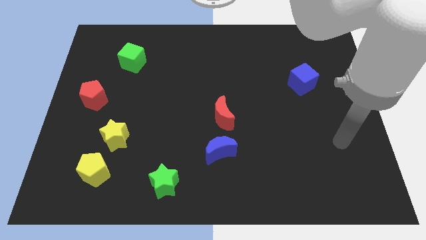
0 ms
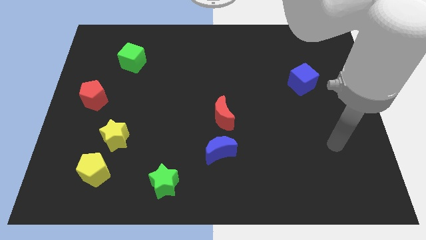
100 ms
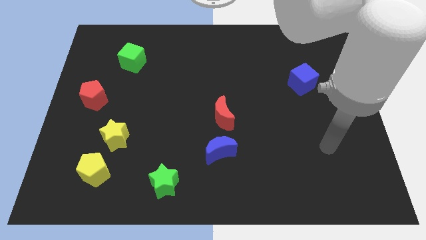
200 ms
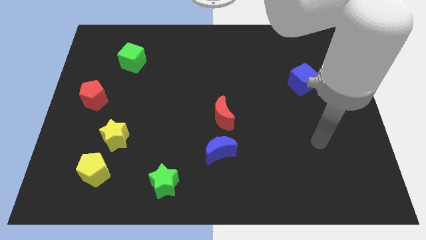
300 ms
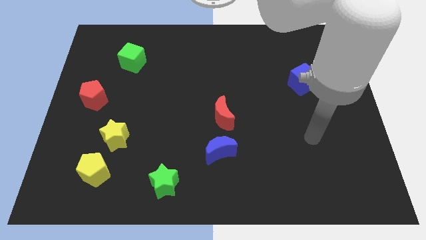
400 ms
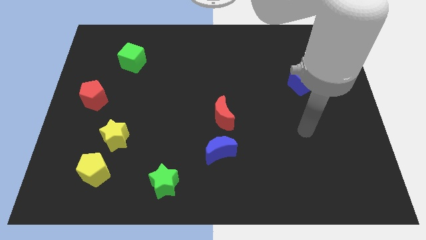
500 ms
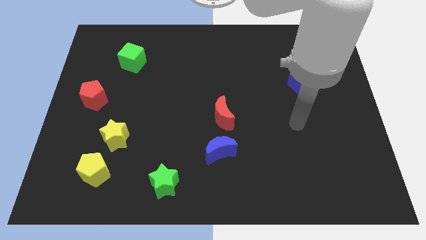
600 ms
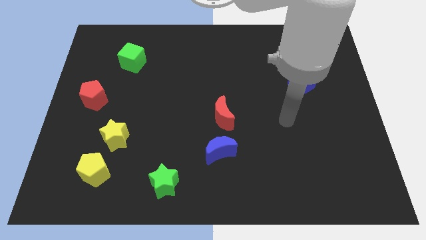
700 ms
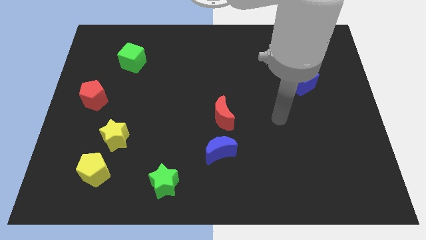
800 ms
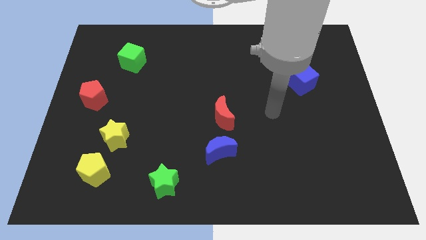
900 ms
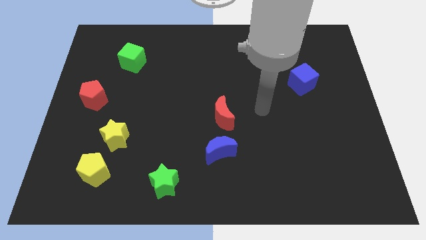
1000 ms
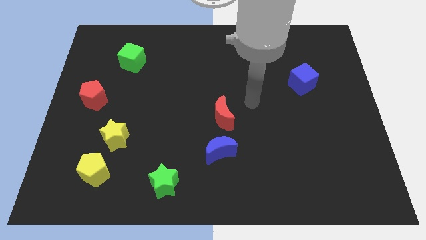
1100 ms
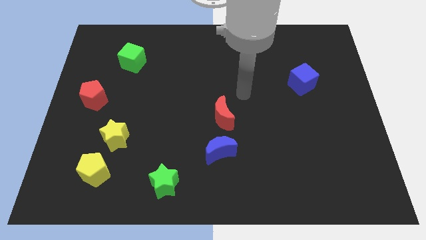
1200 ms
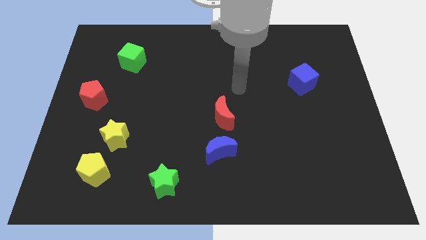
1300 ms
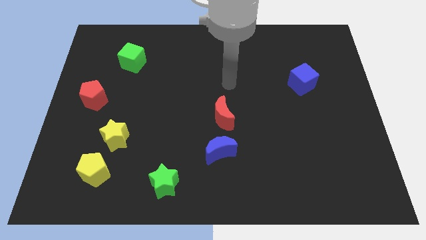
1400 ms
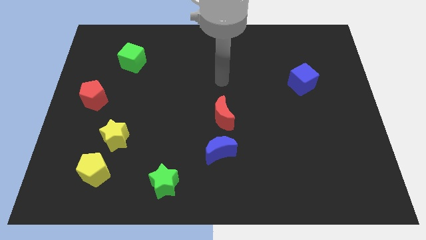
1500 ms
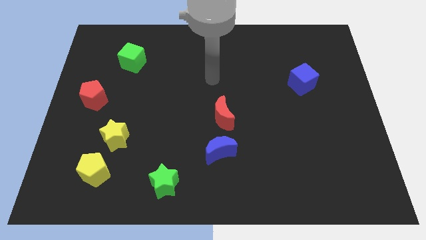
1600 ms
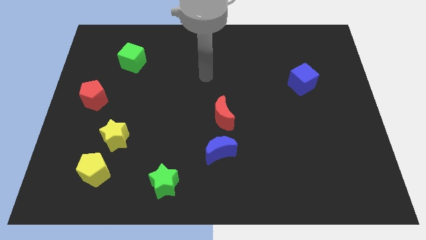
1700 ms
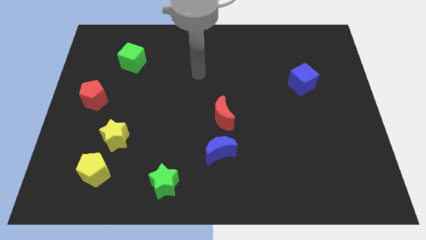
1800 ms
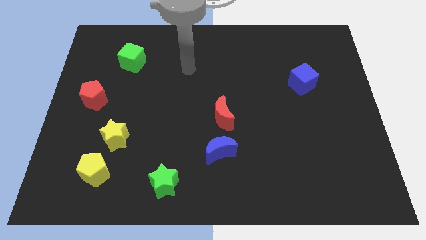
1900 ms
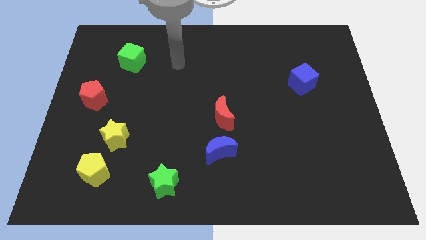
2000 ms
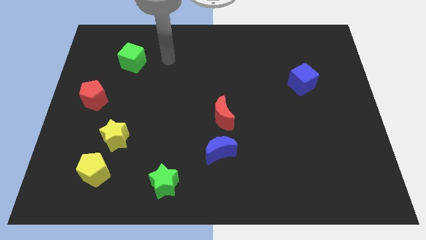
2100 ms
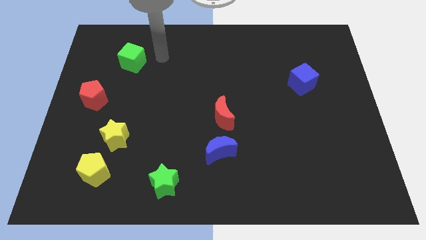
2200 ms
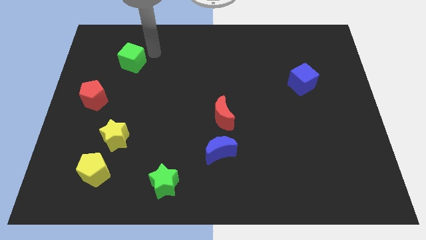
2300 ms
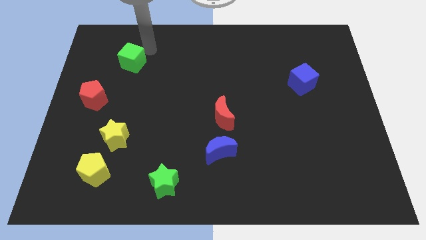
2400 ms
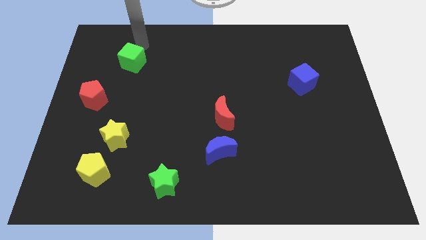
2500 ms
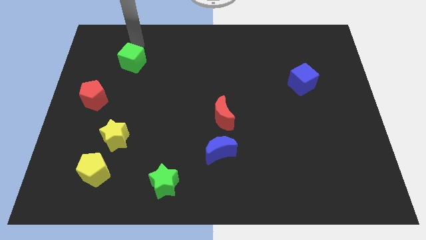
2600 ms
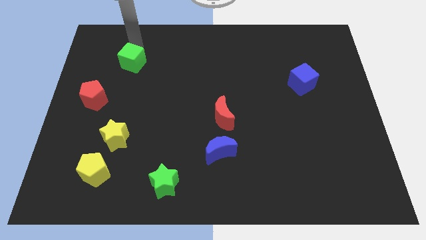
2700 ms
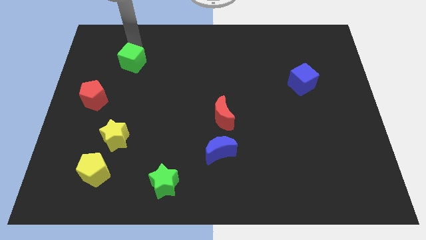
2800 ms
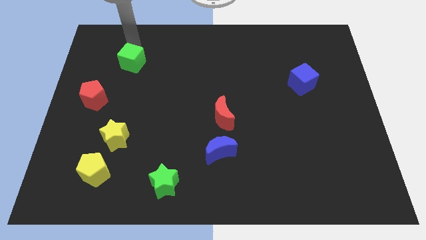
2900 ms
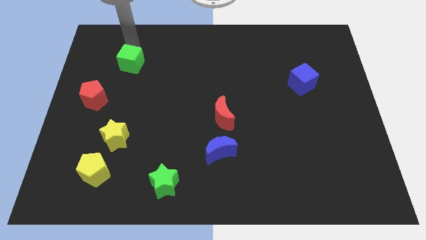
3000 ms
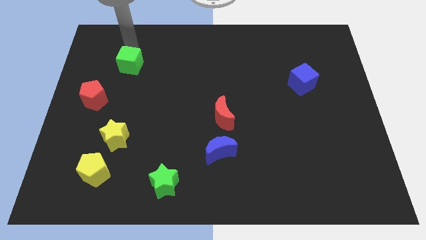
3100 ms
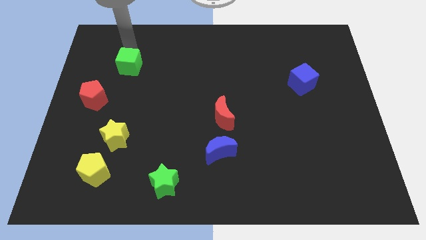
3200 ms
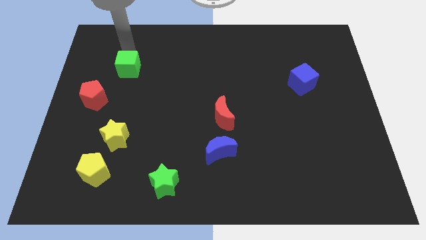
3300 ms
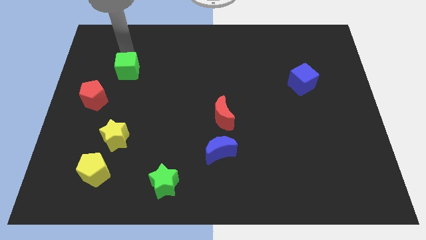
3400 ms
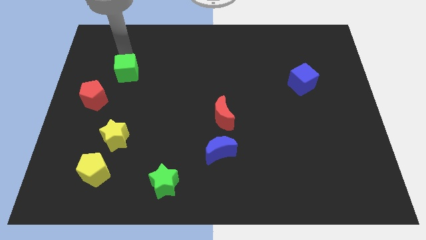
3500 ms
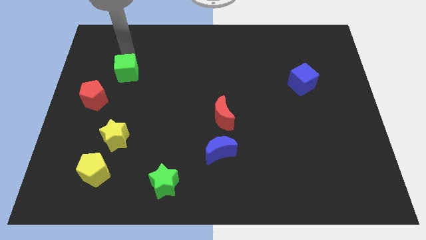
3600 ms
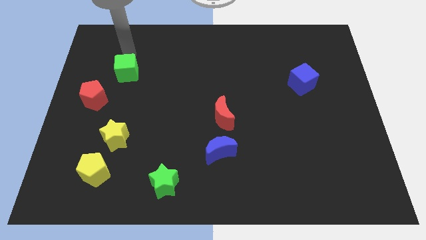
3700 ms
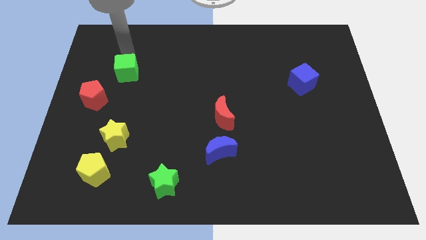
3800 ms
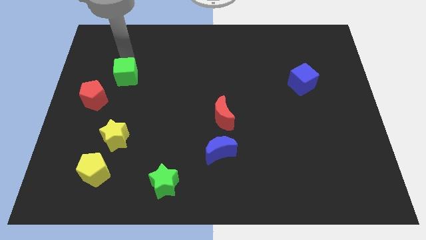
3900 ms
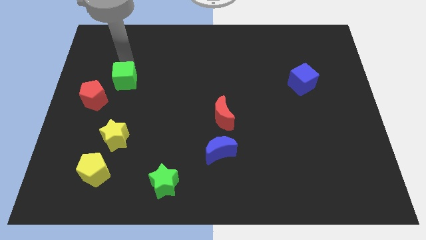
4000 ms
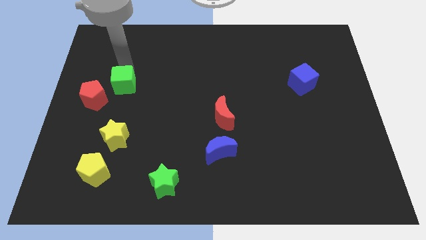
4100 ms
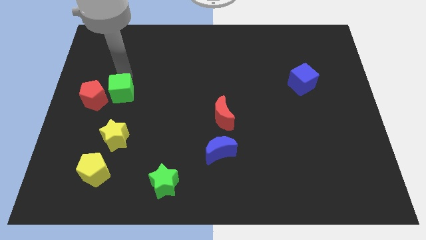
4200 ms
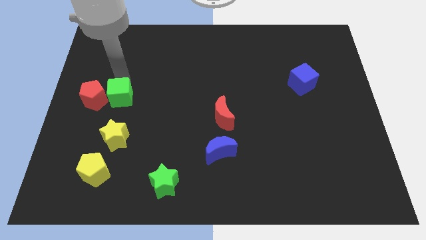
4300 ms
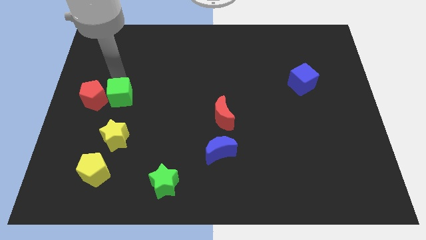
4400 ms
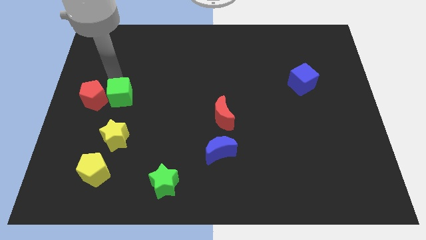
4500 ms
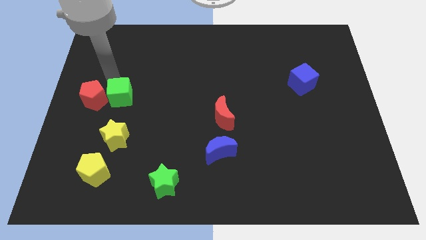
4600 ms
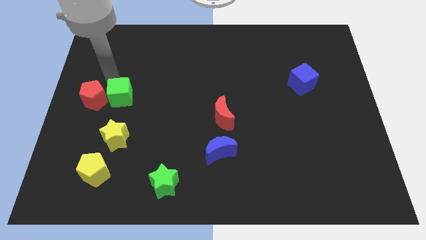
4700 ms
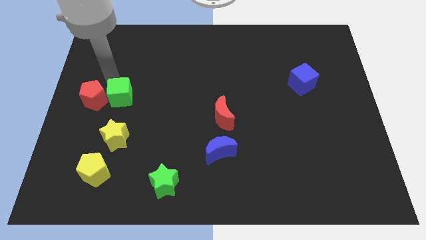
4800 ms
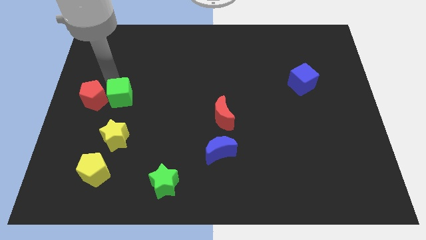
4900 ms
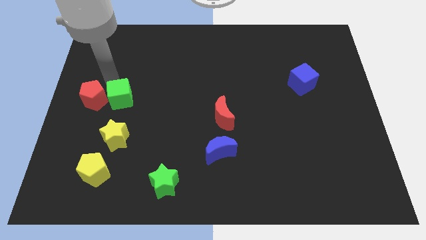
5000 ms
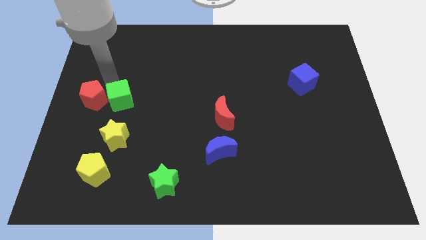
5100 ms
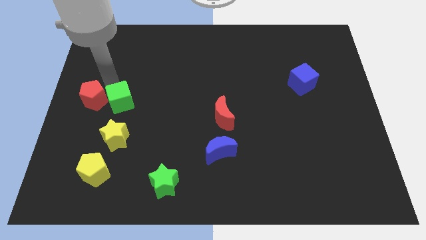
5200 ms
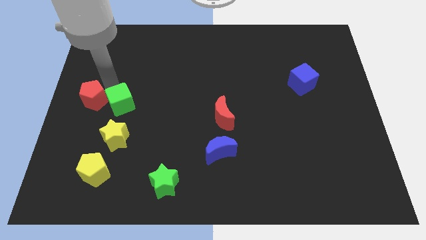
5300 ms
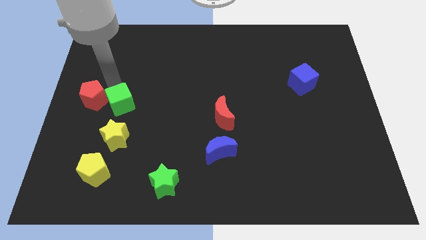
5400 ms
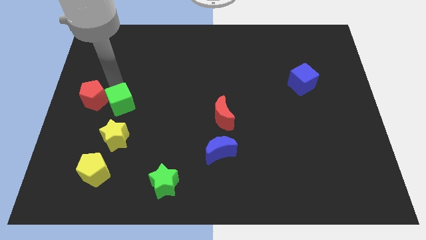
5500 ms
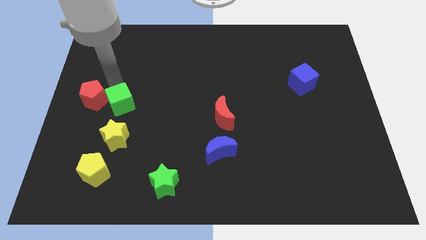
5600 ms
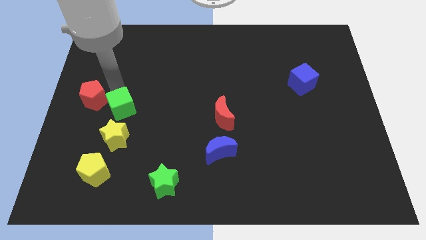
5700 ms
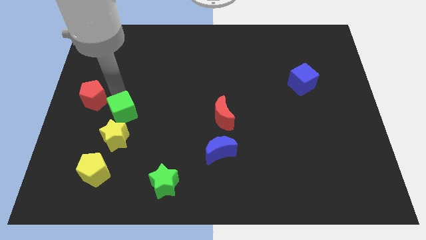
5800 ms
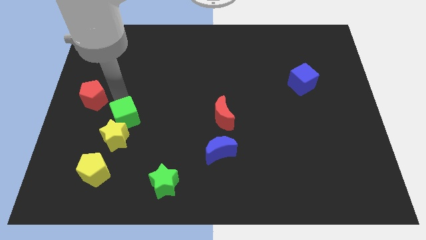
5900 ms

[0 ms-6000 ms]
push the green cube close to the yellow star

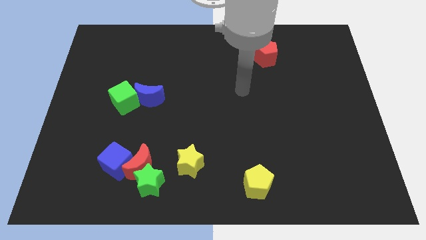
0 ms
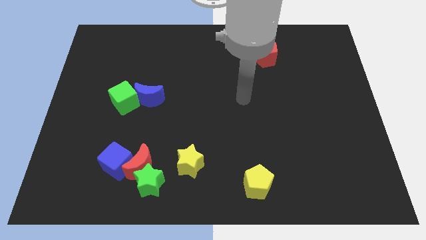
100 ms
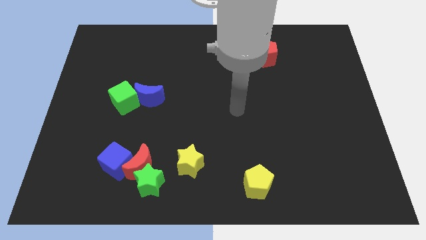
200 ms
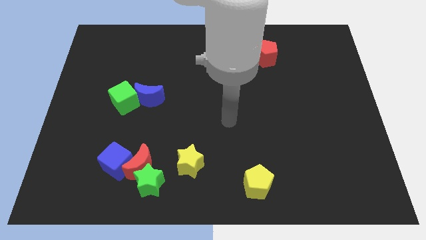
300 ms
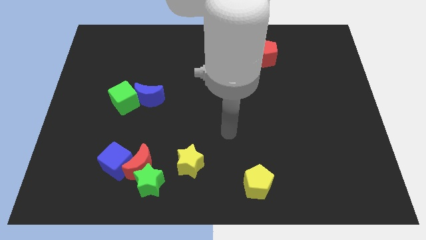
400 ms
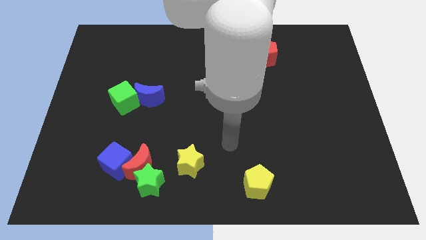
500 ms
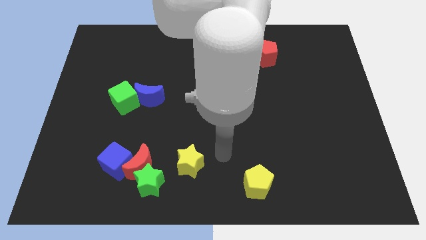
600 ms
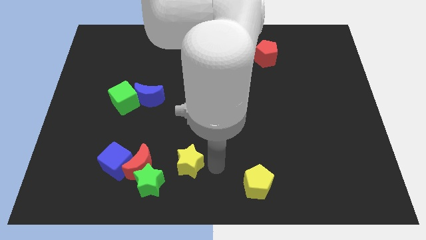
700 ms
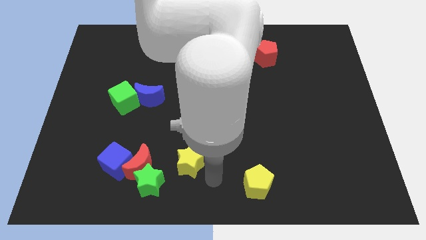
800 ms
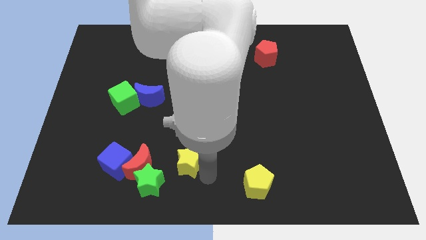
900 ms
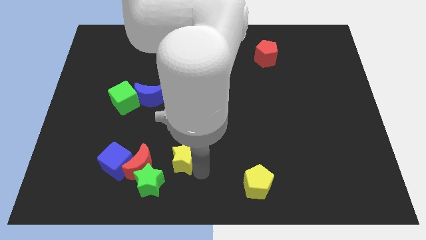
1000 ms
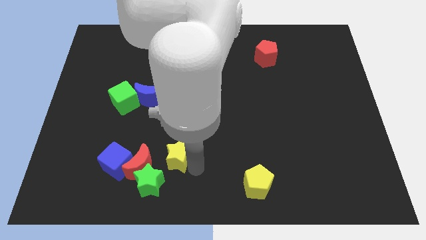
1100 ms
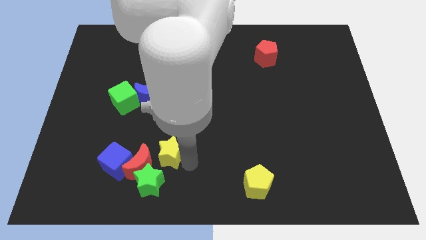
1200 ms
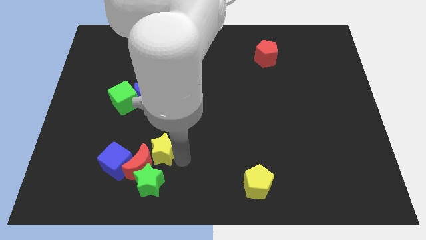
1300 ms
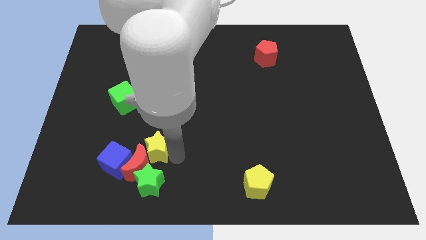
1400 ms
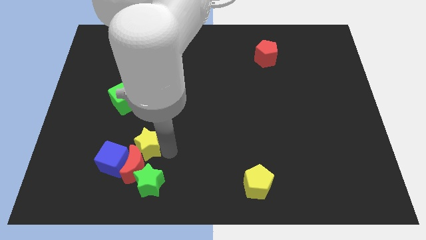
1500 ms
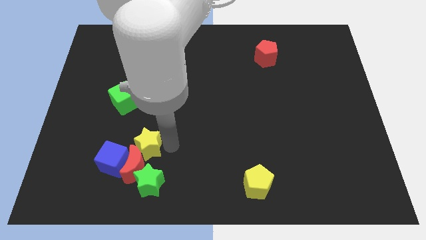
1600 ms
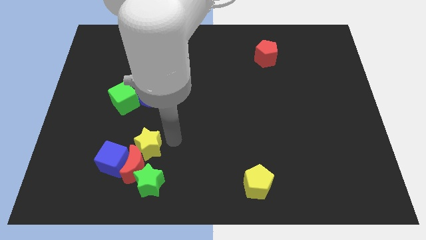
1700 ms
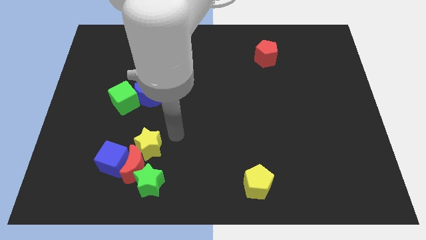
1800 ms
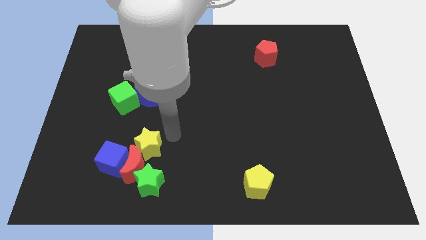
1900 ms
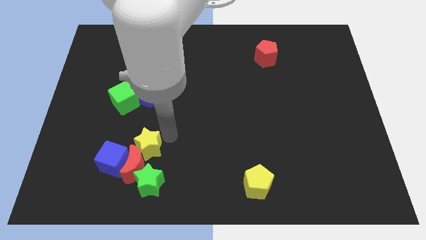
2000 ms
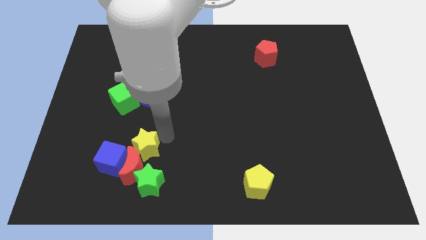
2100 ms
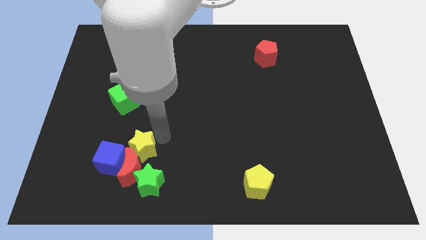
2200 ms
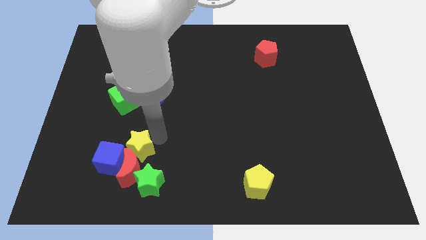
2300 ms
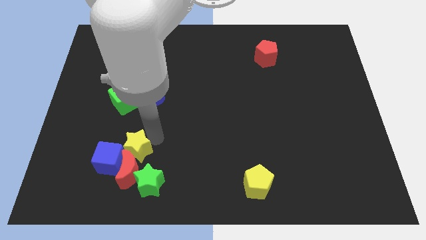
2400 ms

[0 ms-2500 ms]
move the yellow star close to the blue cube
